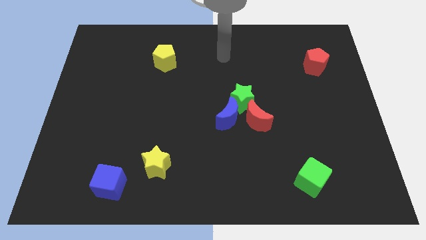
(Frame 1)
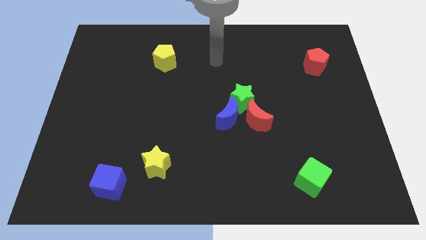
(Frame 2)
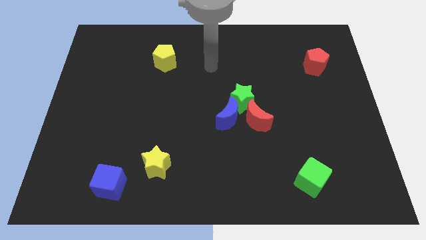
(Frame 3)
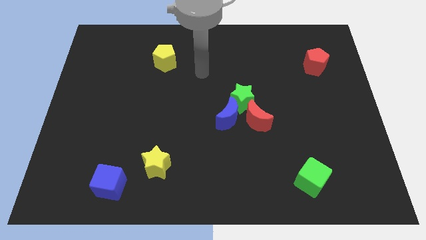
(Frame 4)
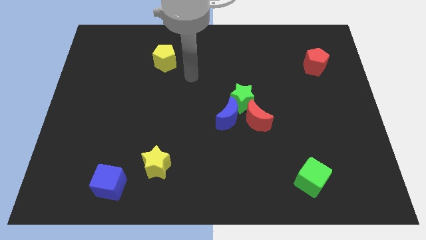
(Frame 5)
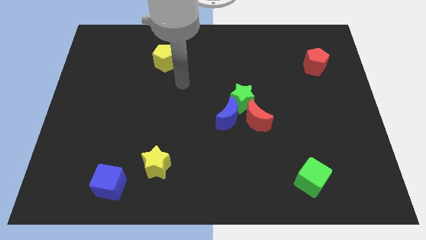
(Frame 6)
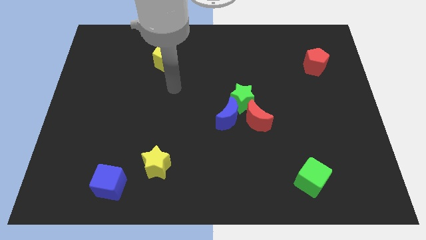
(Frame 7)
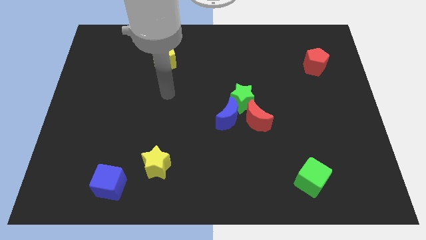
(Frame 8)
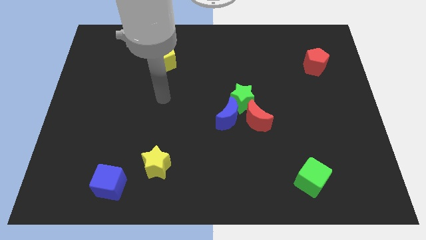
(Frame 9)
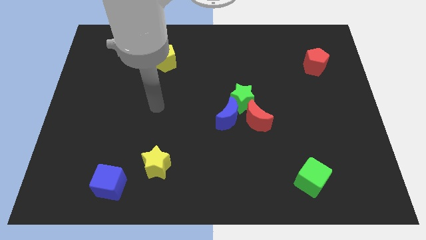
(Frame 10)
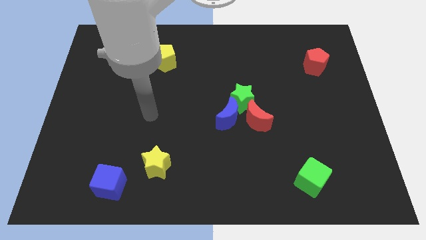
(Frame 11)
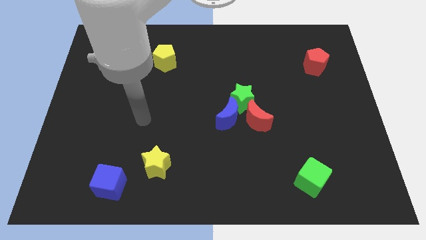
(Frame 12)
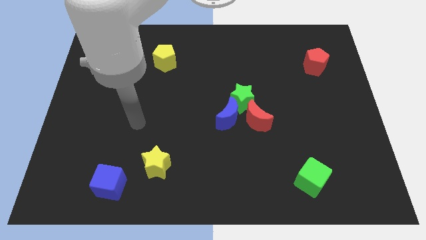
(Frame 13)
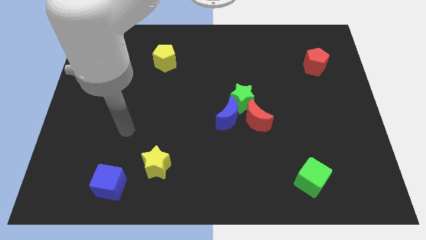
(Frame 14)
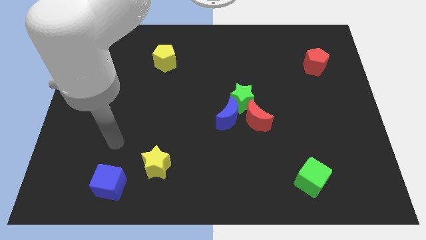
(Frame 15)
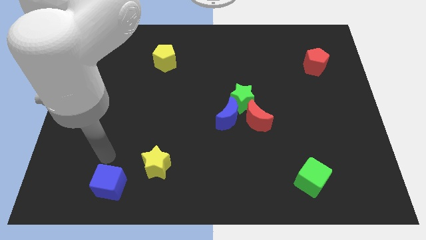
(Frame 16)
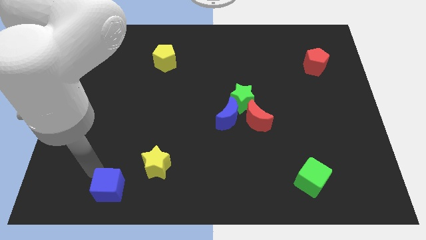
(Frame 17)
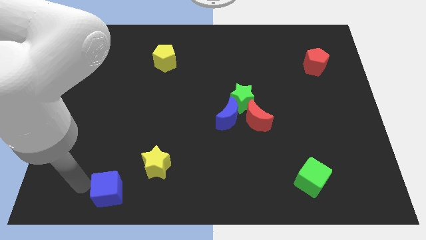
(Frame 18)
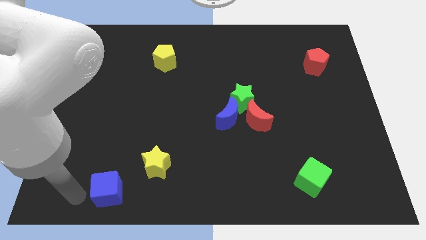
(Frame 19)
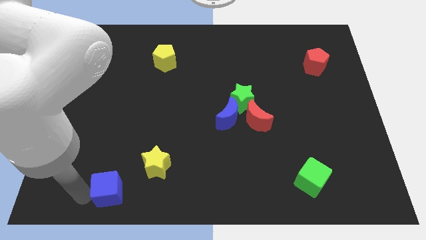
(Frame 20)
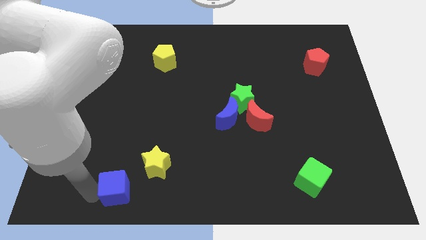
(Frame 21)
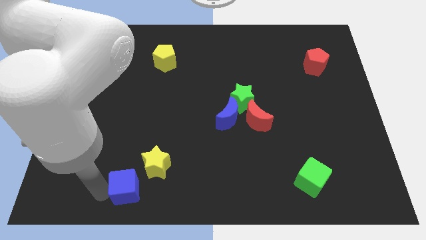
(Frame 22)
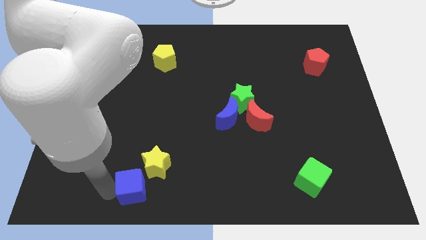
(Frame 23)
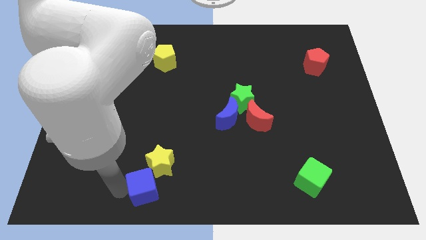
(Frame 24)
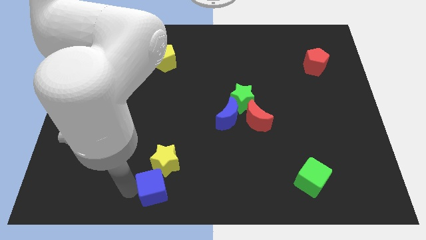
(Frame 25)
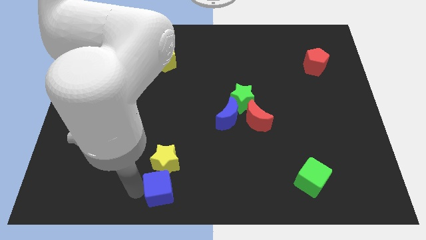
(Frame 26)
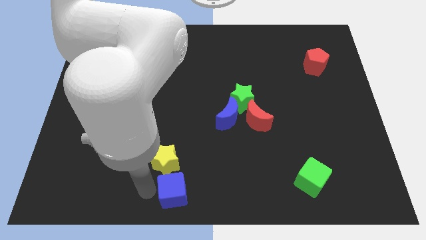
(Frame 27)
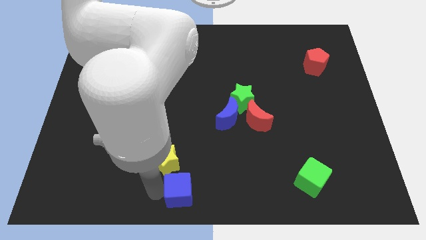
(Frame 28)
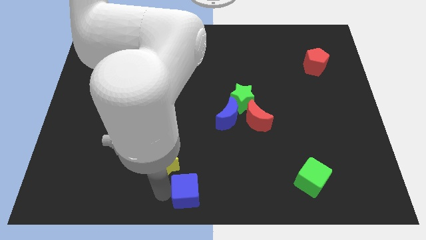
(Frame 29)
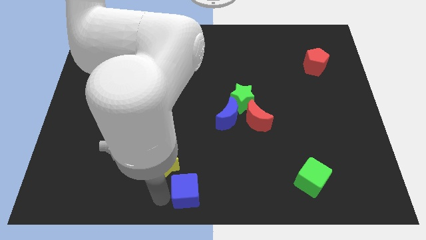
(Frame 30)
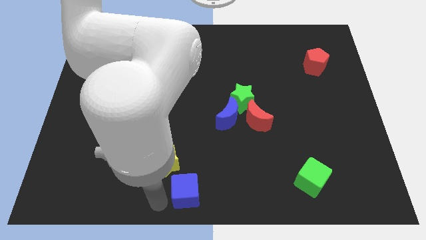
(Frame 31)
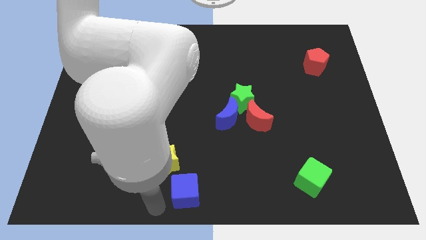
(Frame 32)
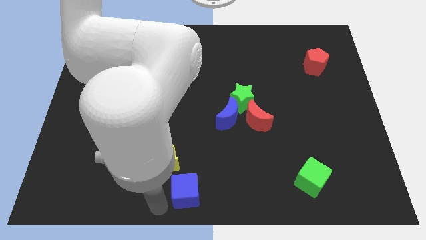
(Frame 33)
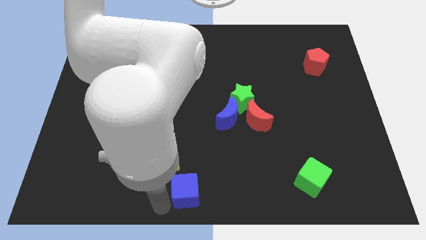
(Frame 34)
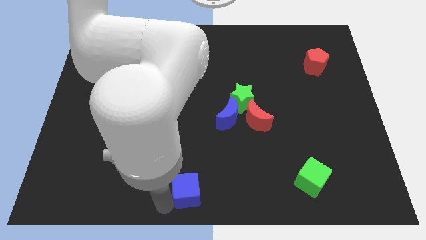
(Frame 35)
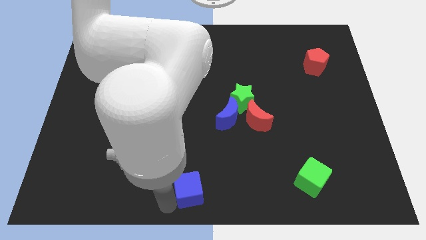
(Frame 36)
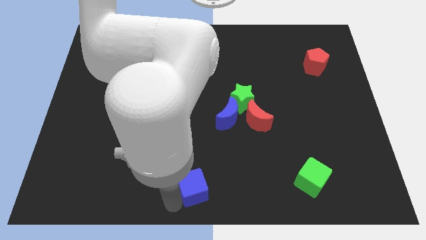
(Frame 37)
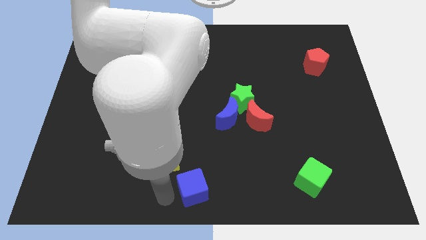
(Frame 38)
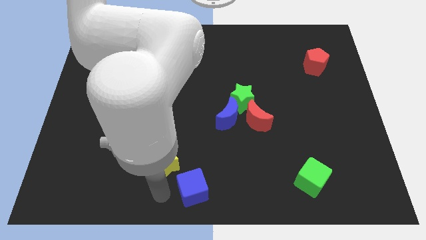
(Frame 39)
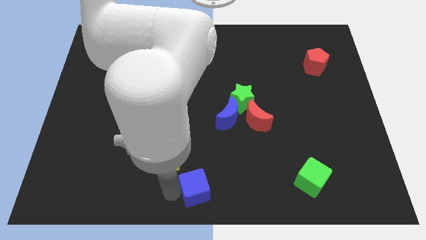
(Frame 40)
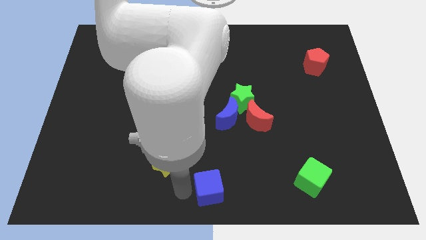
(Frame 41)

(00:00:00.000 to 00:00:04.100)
push the blue cube to the right

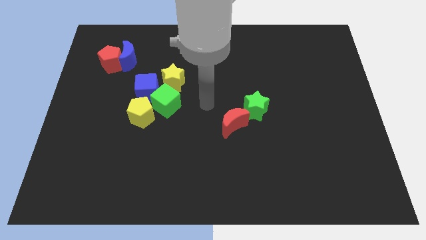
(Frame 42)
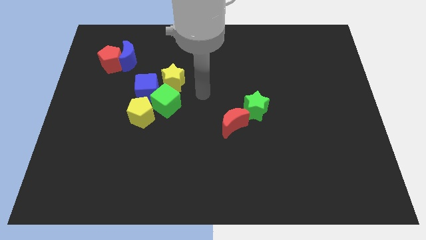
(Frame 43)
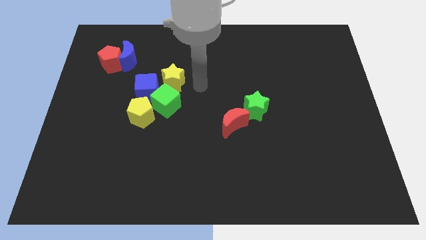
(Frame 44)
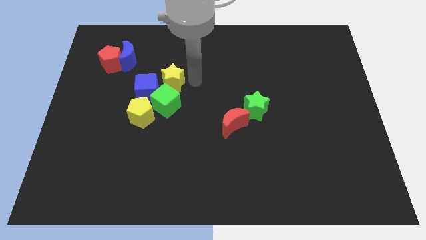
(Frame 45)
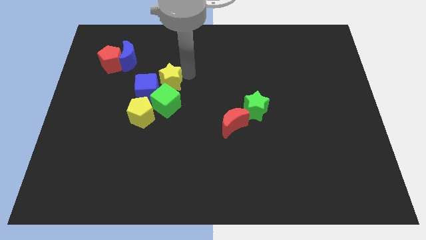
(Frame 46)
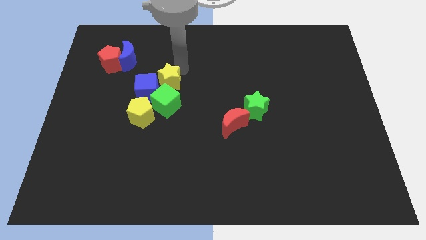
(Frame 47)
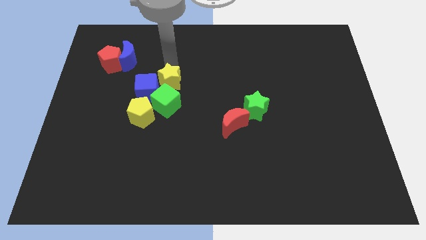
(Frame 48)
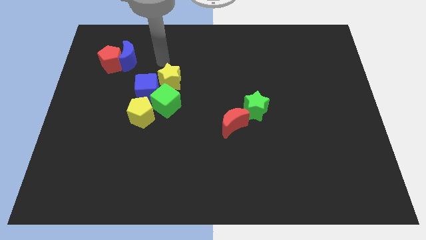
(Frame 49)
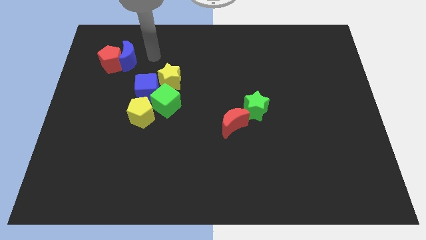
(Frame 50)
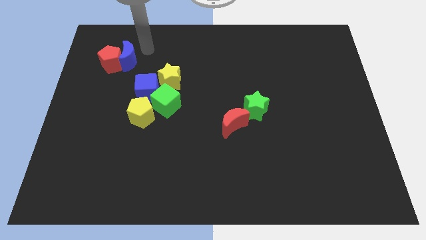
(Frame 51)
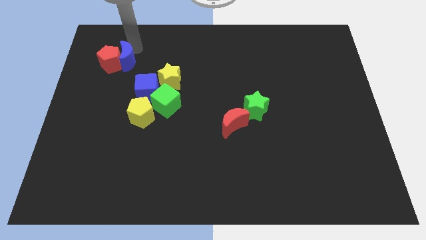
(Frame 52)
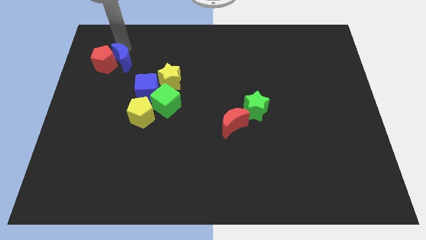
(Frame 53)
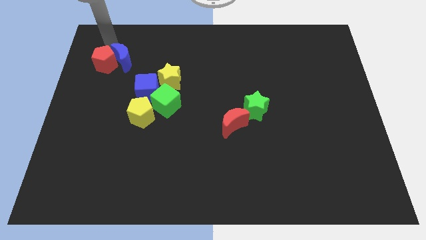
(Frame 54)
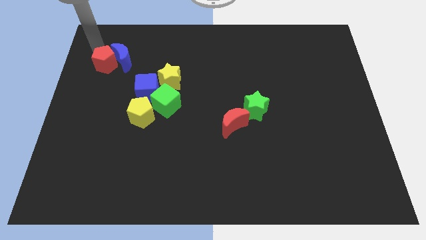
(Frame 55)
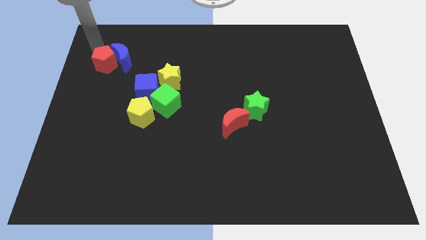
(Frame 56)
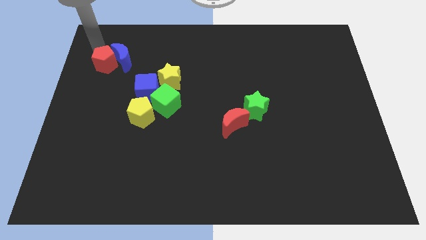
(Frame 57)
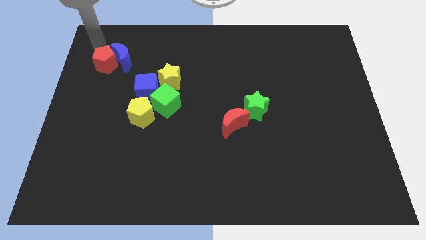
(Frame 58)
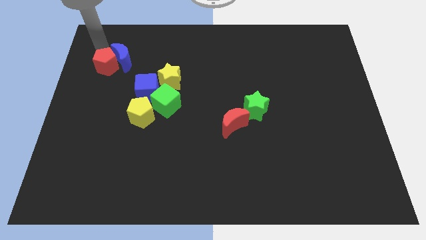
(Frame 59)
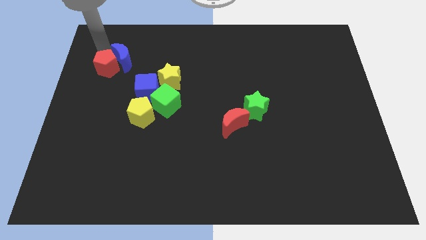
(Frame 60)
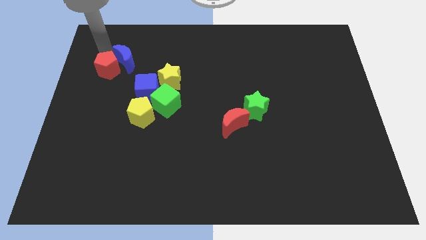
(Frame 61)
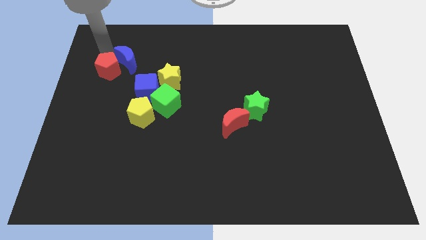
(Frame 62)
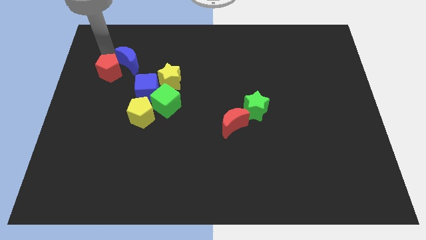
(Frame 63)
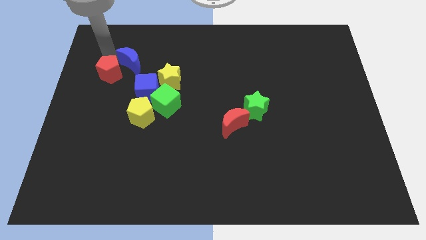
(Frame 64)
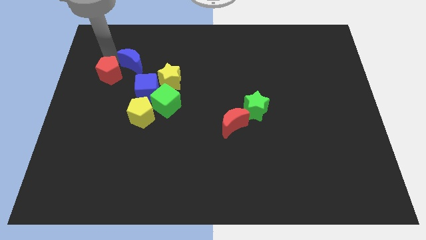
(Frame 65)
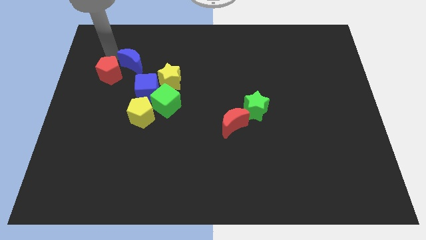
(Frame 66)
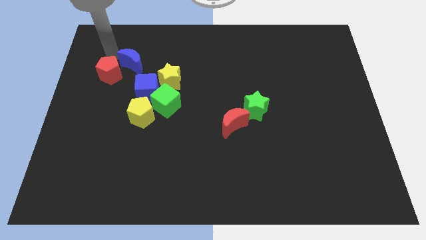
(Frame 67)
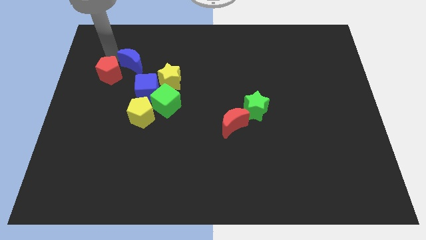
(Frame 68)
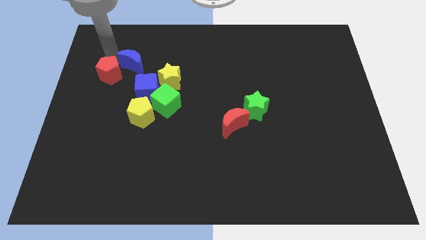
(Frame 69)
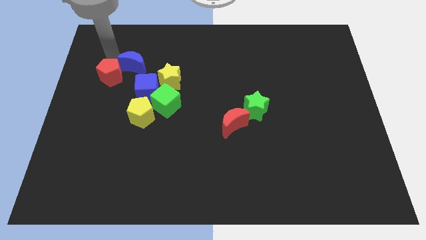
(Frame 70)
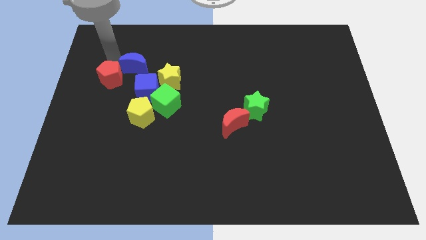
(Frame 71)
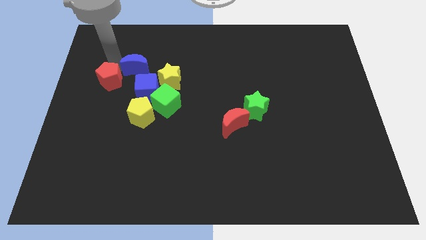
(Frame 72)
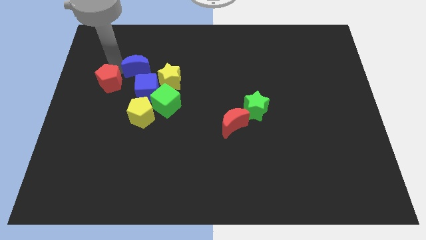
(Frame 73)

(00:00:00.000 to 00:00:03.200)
push the red pentagon a little bit down
